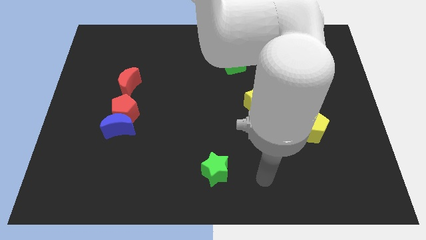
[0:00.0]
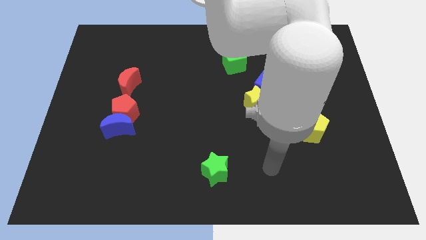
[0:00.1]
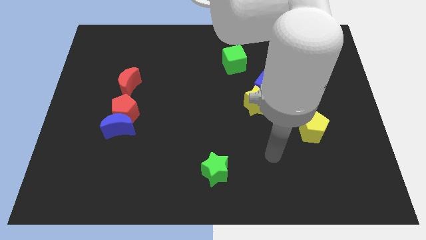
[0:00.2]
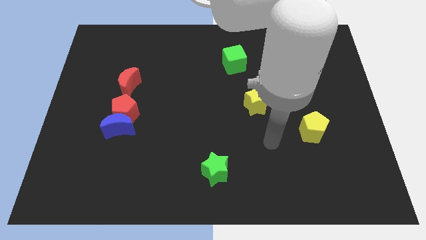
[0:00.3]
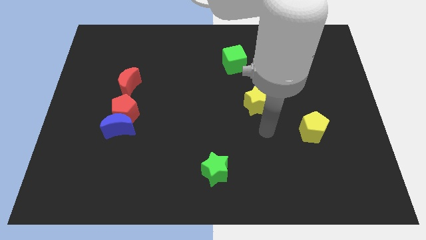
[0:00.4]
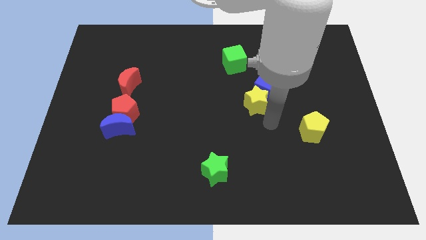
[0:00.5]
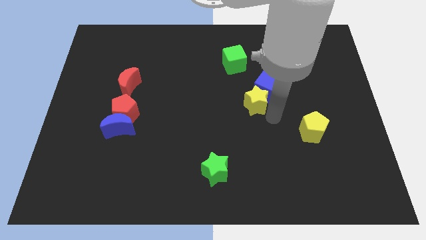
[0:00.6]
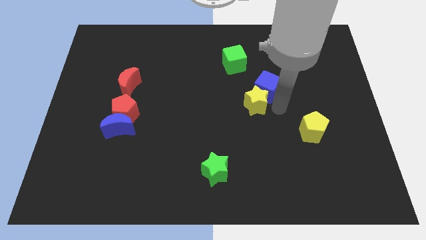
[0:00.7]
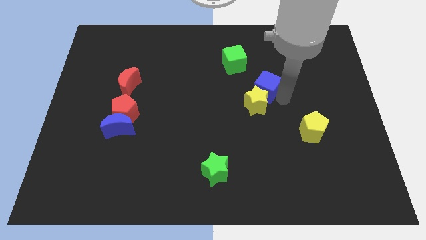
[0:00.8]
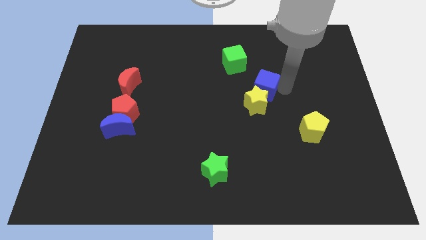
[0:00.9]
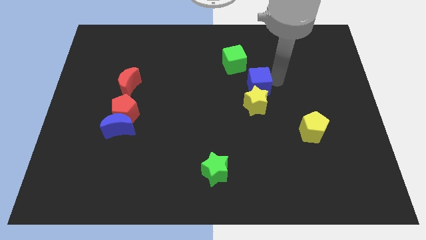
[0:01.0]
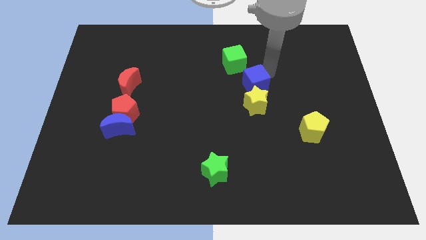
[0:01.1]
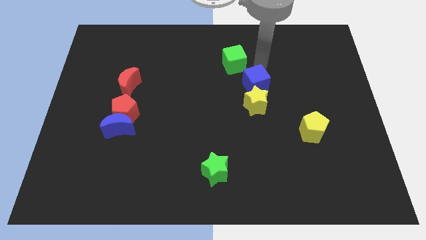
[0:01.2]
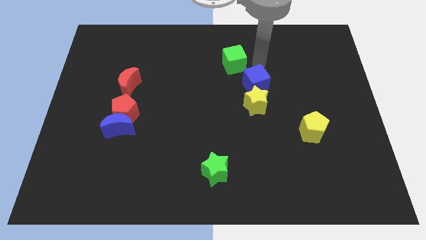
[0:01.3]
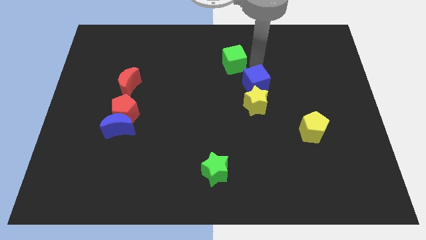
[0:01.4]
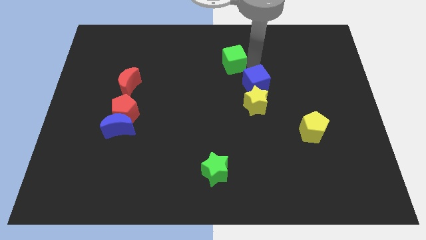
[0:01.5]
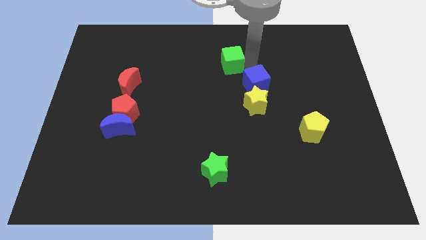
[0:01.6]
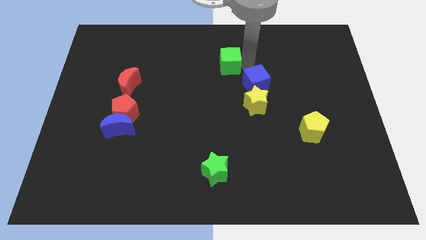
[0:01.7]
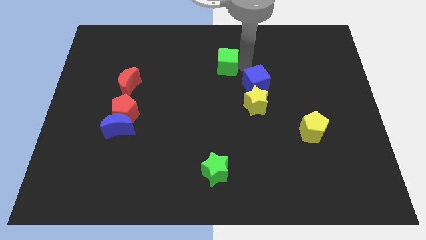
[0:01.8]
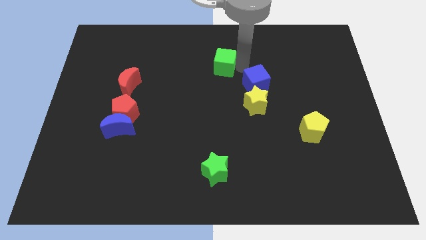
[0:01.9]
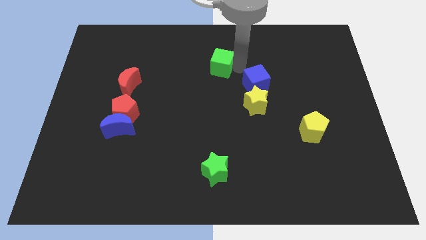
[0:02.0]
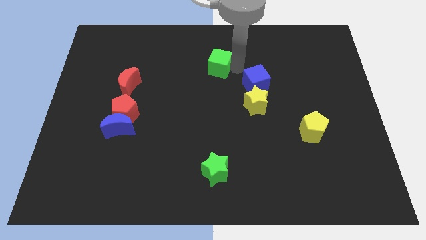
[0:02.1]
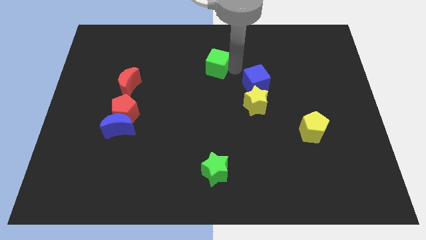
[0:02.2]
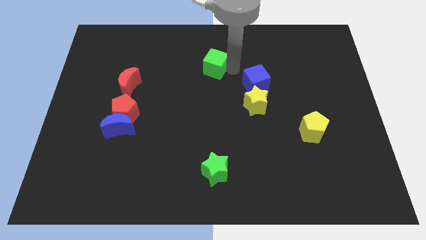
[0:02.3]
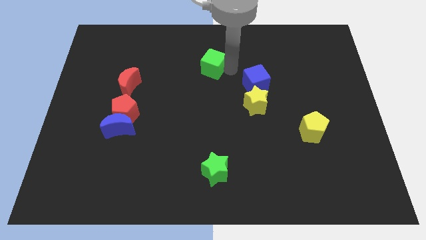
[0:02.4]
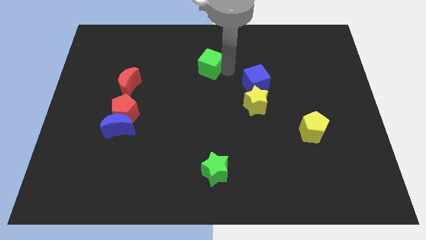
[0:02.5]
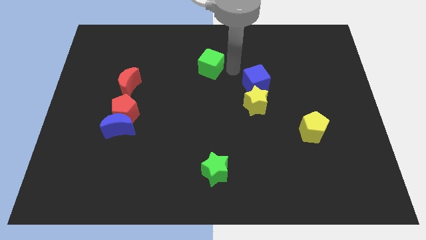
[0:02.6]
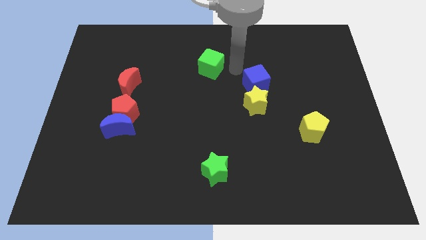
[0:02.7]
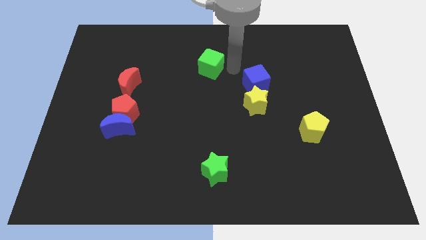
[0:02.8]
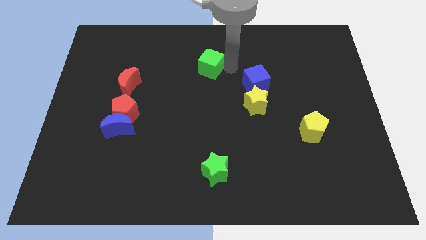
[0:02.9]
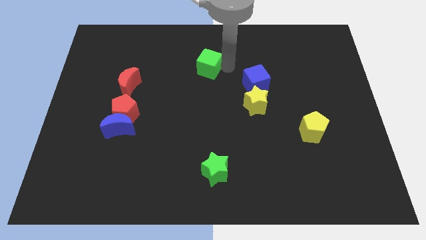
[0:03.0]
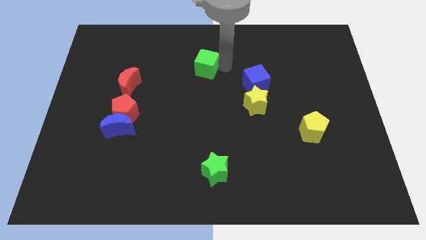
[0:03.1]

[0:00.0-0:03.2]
move the green cube left a little

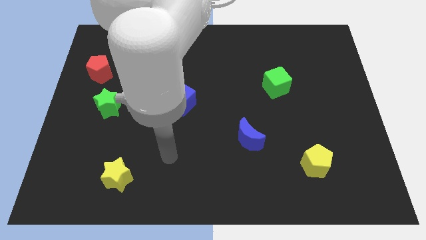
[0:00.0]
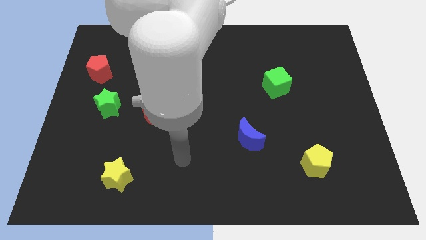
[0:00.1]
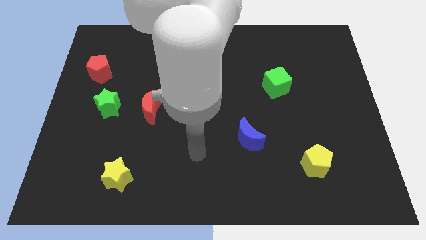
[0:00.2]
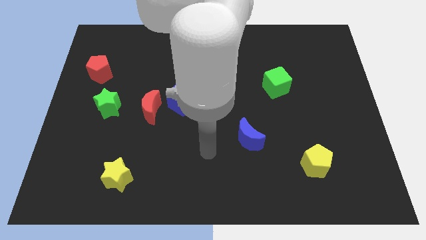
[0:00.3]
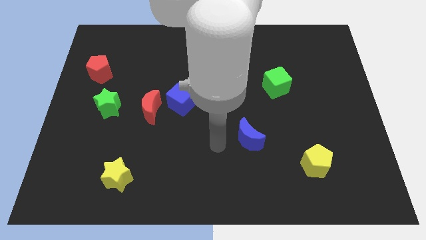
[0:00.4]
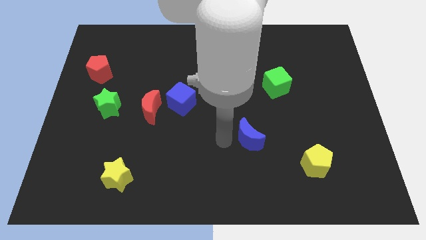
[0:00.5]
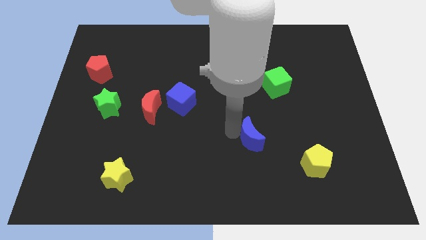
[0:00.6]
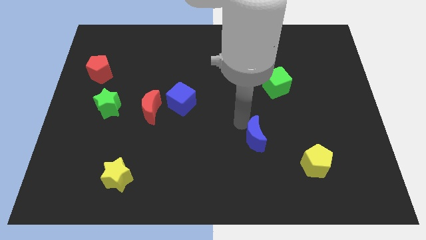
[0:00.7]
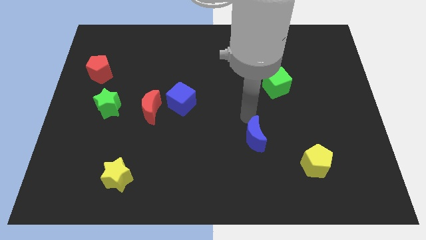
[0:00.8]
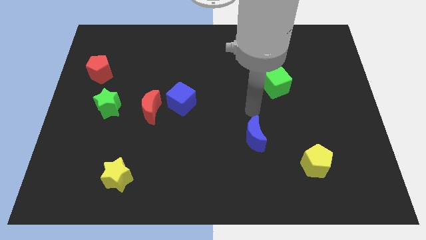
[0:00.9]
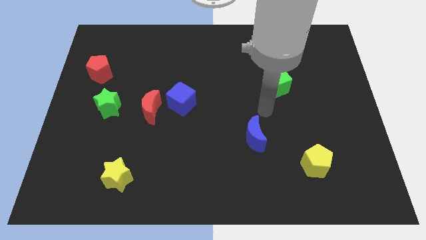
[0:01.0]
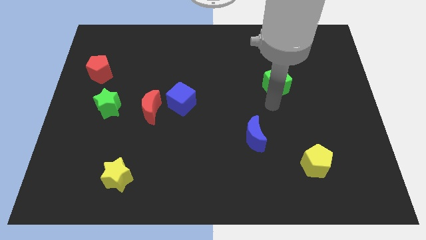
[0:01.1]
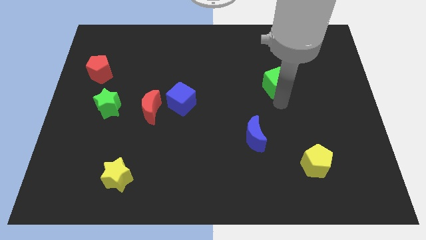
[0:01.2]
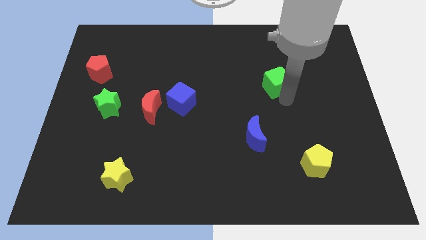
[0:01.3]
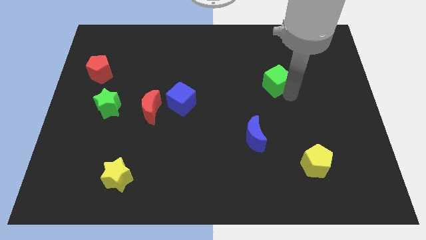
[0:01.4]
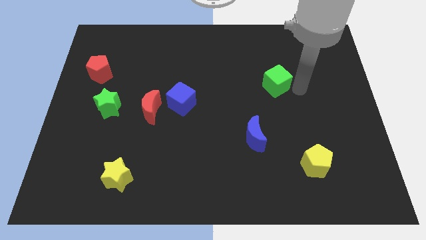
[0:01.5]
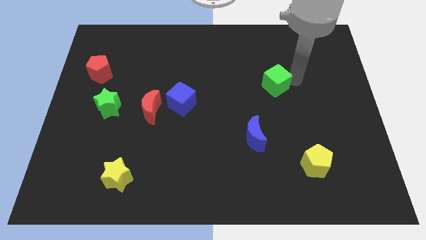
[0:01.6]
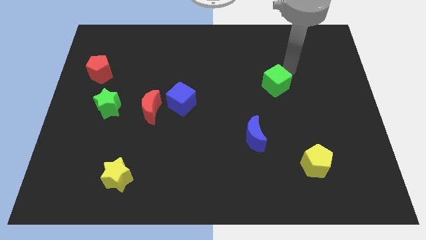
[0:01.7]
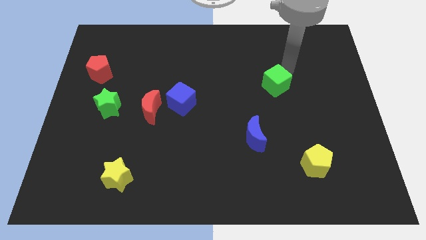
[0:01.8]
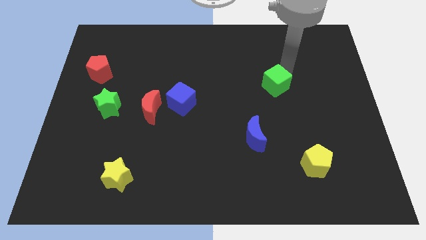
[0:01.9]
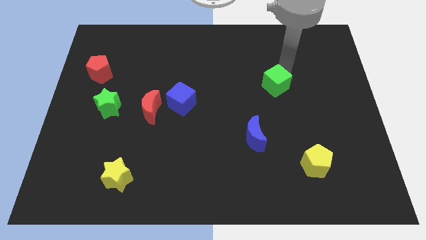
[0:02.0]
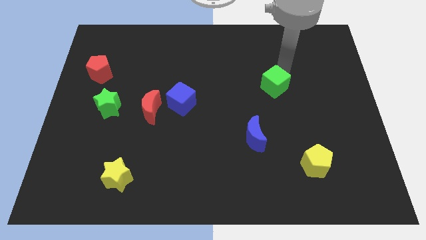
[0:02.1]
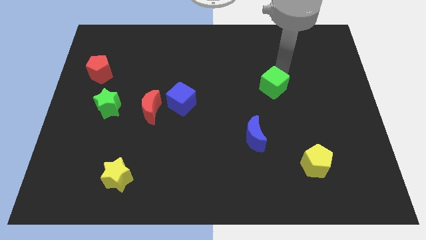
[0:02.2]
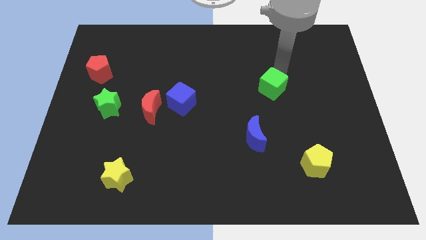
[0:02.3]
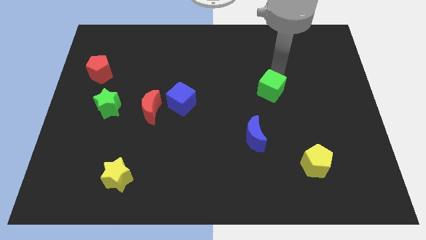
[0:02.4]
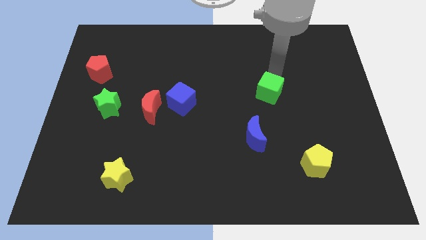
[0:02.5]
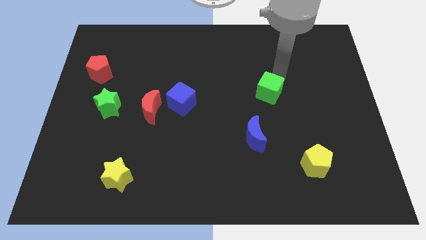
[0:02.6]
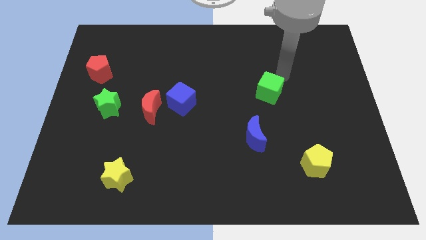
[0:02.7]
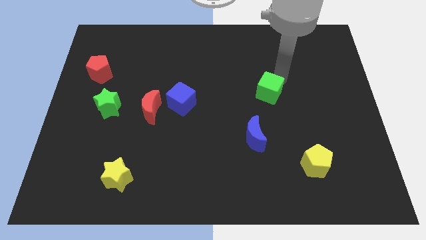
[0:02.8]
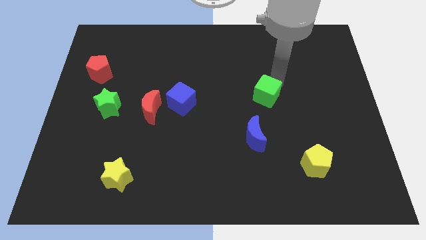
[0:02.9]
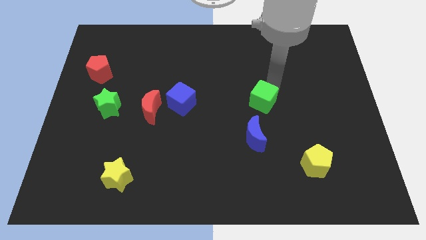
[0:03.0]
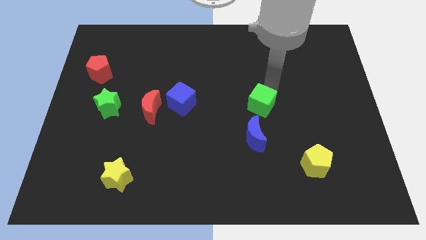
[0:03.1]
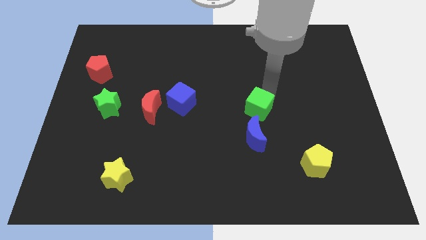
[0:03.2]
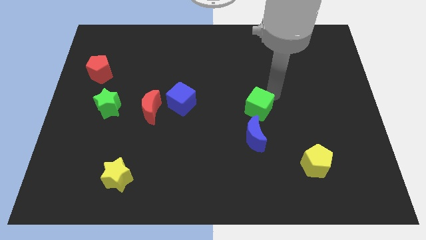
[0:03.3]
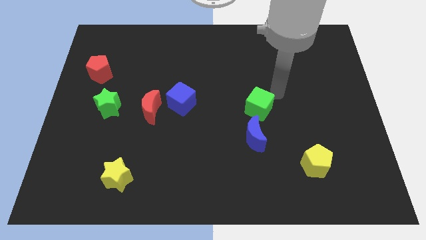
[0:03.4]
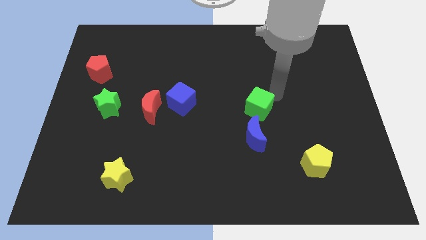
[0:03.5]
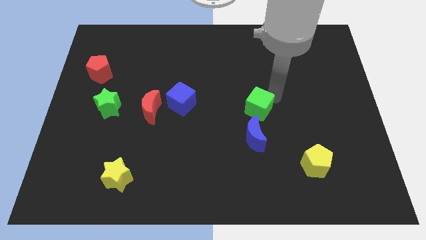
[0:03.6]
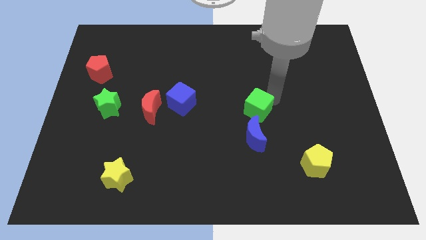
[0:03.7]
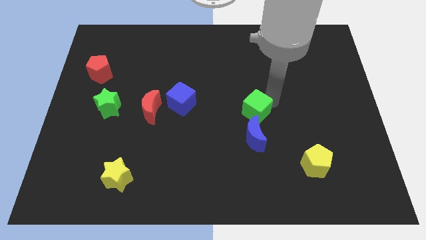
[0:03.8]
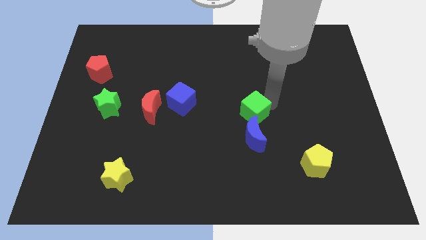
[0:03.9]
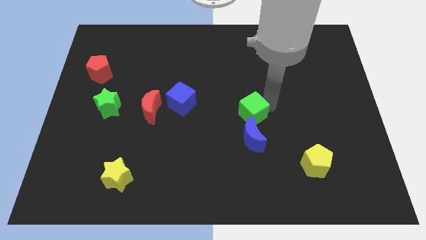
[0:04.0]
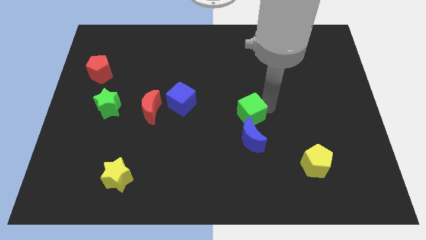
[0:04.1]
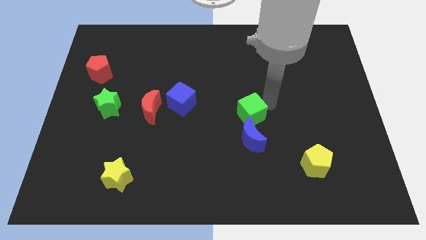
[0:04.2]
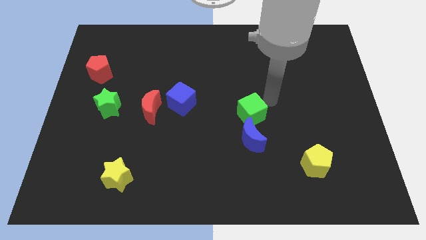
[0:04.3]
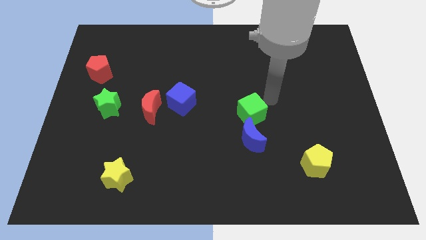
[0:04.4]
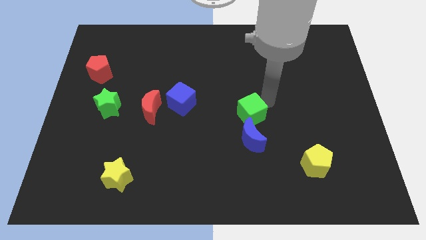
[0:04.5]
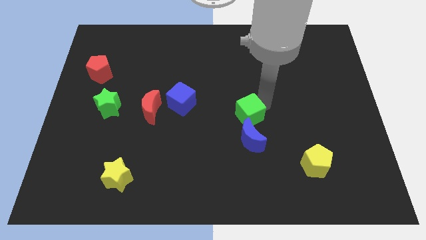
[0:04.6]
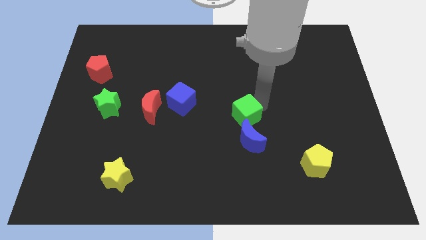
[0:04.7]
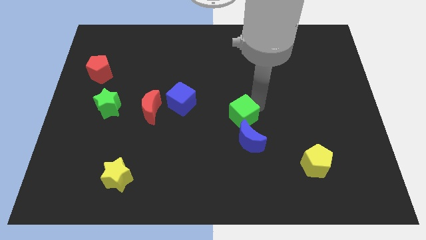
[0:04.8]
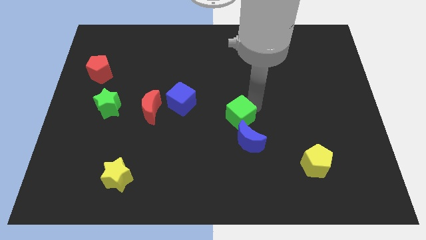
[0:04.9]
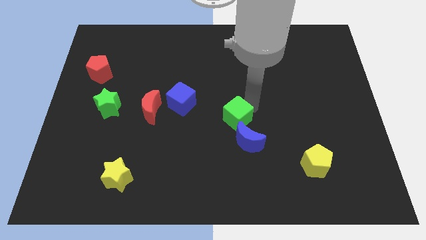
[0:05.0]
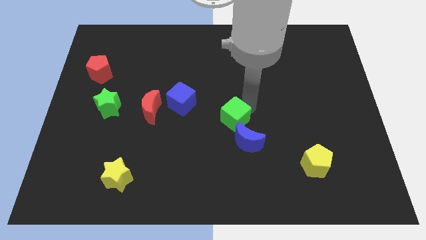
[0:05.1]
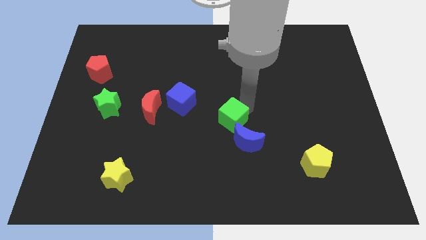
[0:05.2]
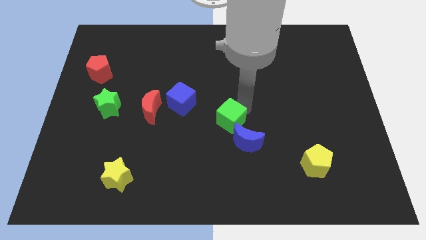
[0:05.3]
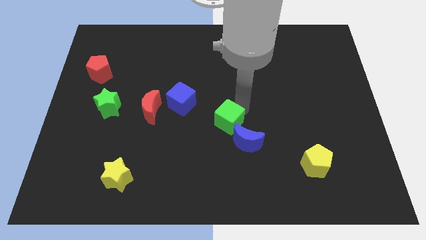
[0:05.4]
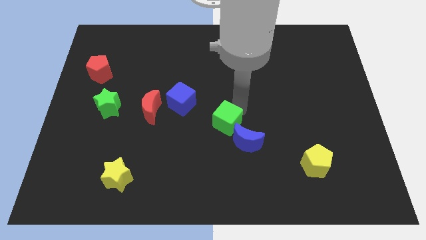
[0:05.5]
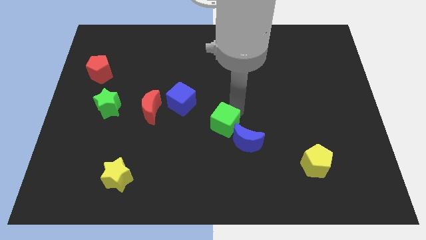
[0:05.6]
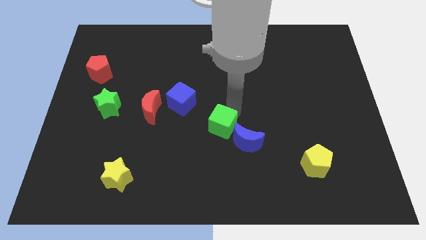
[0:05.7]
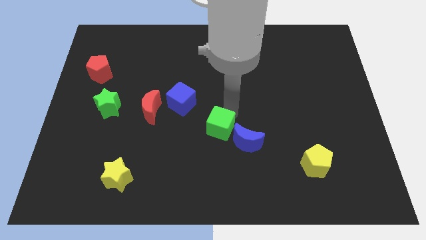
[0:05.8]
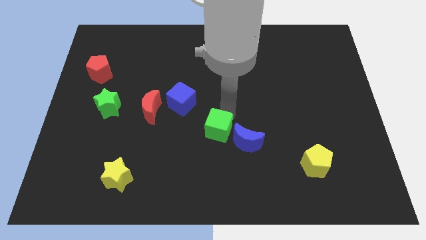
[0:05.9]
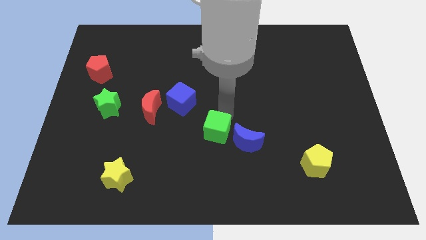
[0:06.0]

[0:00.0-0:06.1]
move the green cube downwards and to the left
